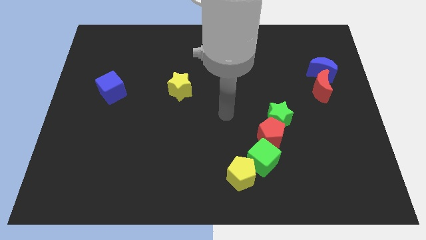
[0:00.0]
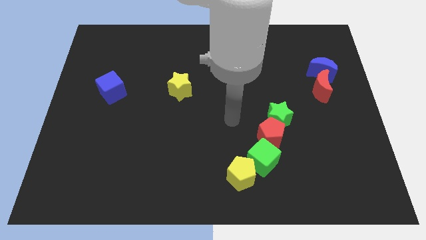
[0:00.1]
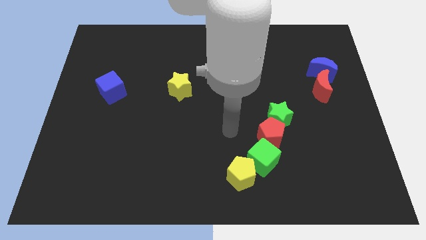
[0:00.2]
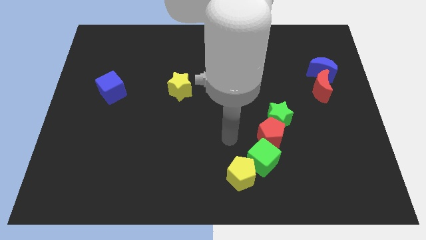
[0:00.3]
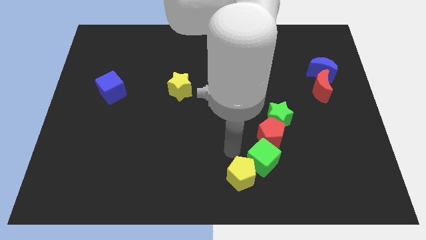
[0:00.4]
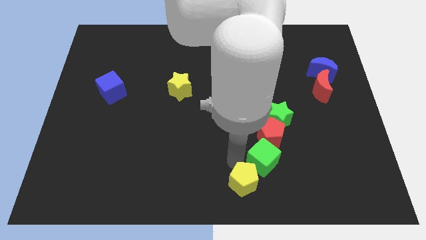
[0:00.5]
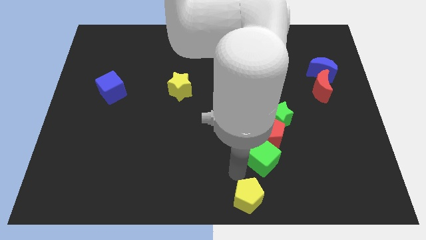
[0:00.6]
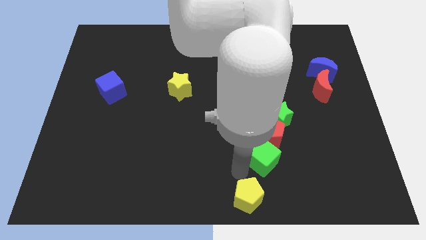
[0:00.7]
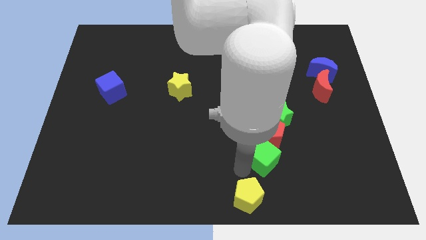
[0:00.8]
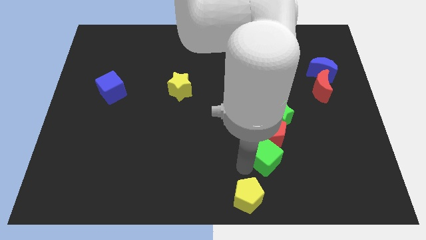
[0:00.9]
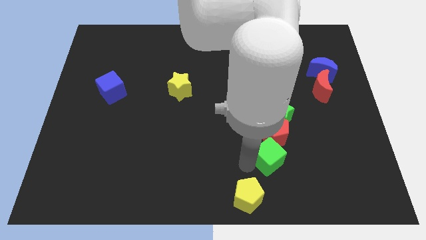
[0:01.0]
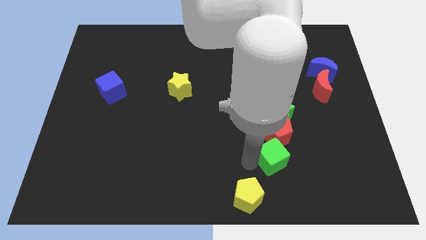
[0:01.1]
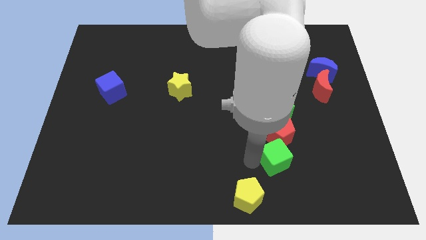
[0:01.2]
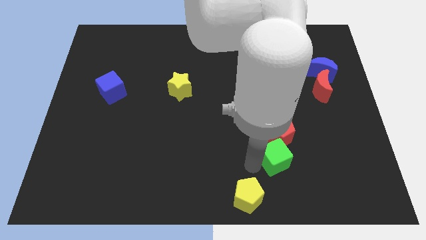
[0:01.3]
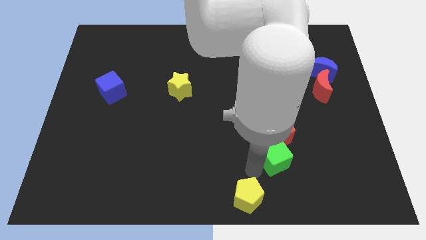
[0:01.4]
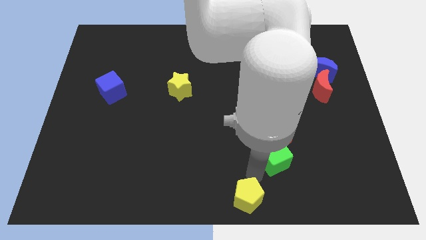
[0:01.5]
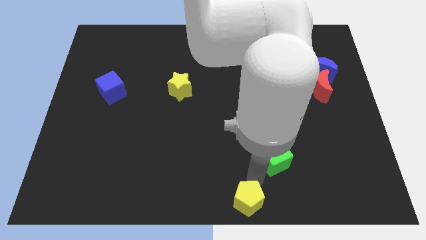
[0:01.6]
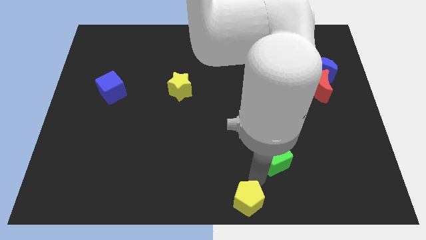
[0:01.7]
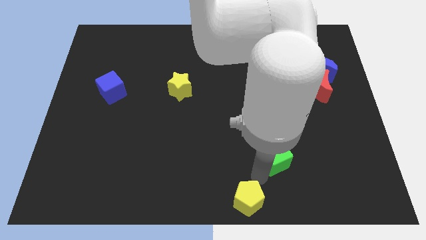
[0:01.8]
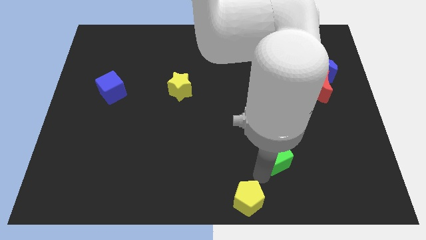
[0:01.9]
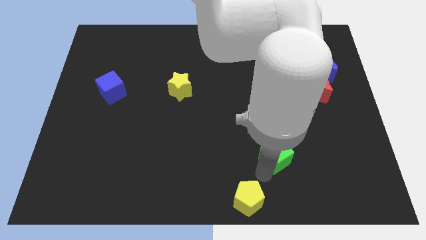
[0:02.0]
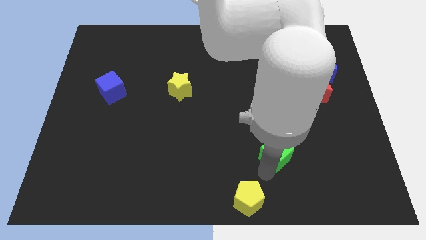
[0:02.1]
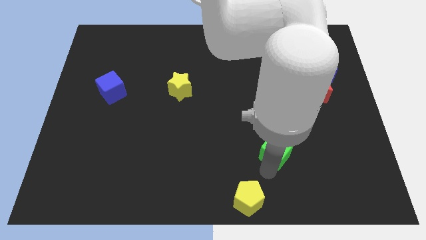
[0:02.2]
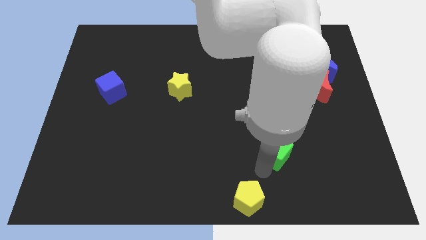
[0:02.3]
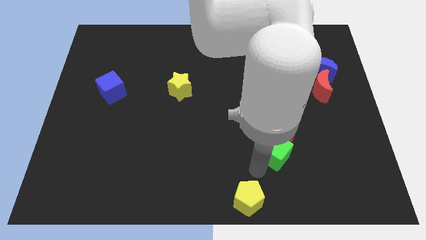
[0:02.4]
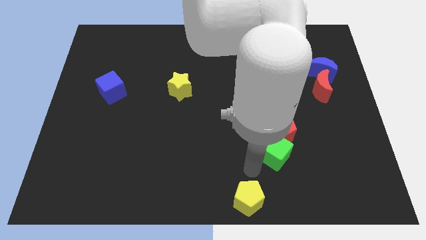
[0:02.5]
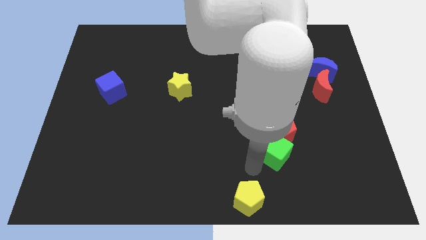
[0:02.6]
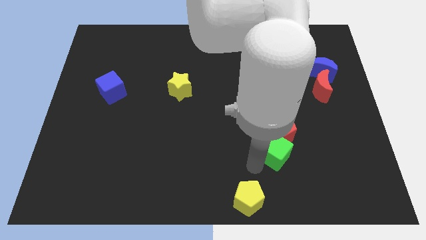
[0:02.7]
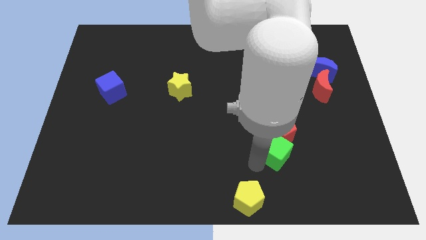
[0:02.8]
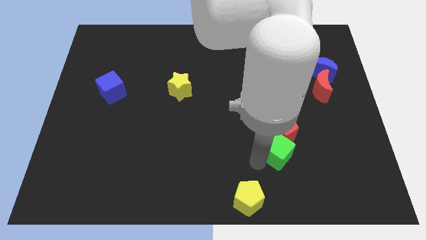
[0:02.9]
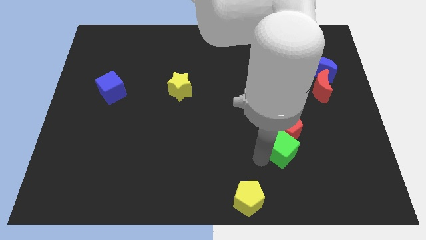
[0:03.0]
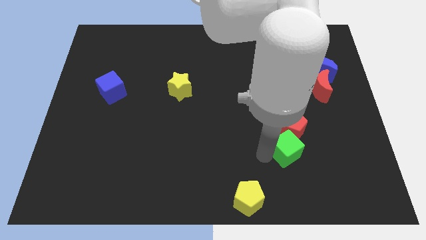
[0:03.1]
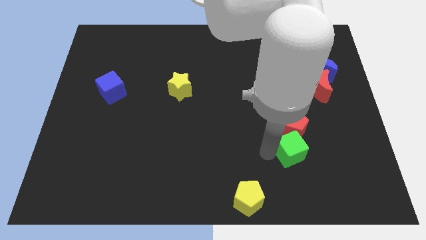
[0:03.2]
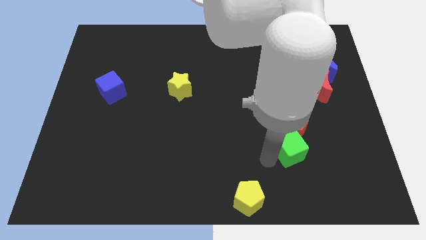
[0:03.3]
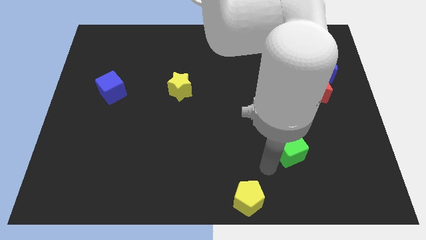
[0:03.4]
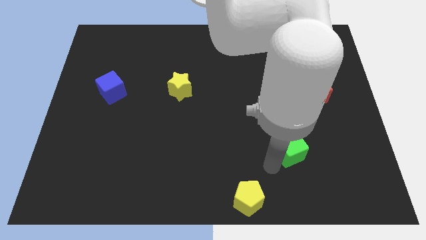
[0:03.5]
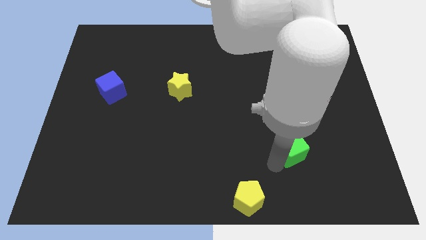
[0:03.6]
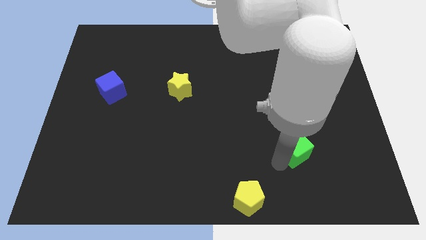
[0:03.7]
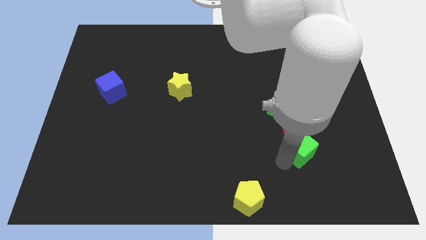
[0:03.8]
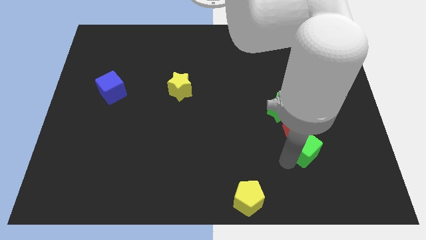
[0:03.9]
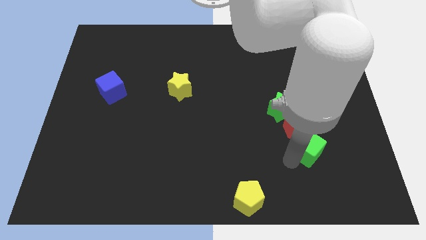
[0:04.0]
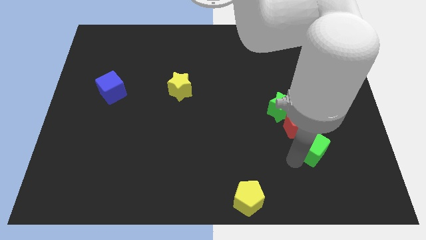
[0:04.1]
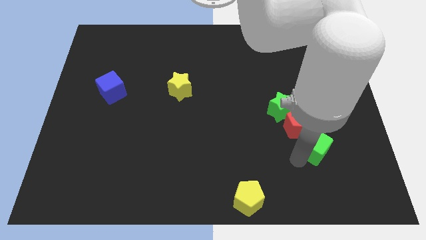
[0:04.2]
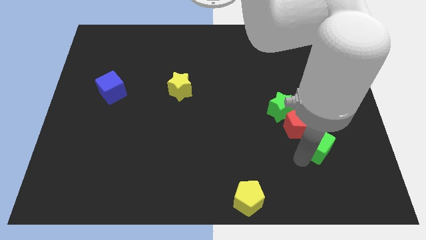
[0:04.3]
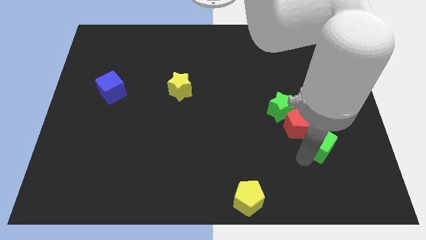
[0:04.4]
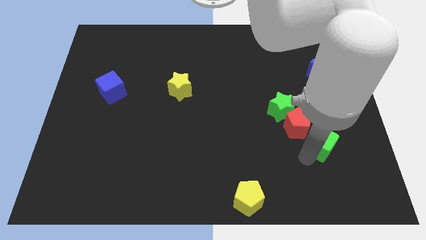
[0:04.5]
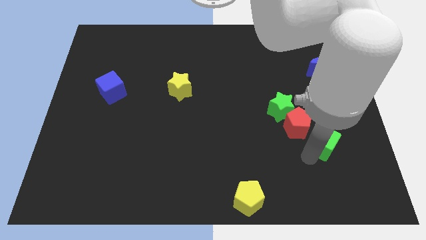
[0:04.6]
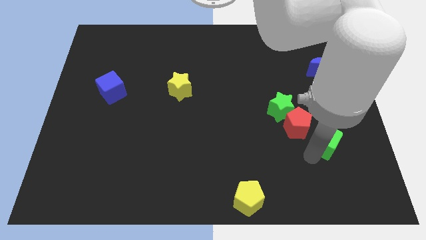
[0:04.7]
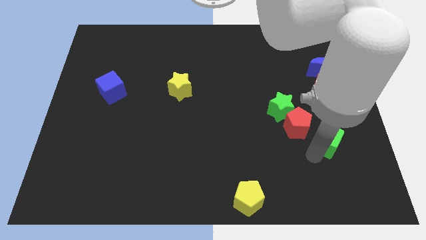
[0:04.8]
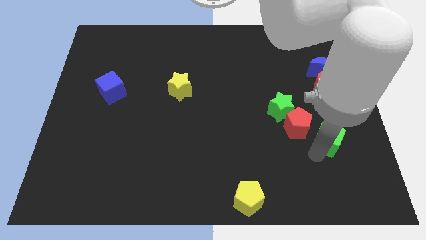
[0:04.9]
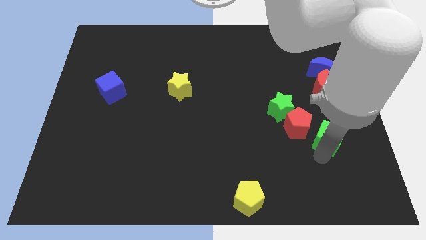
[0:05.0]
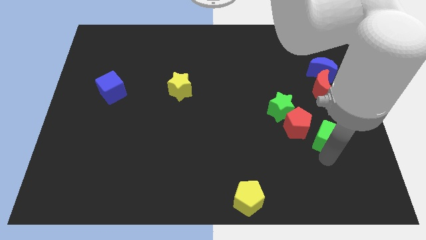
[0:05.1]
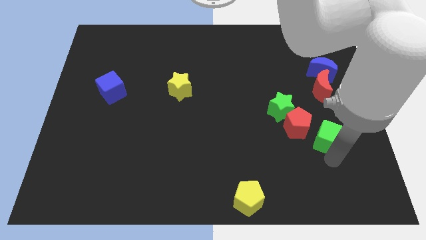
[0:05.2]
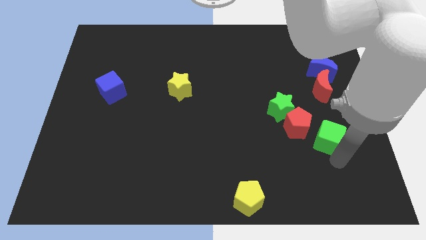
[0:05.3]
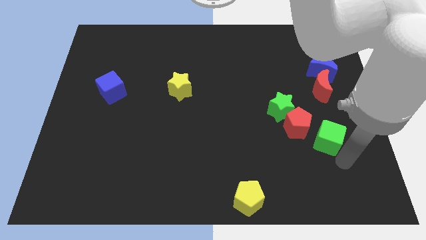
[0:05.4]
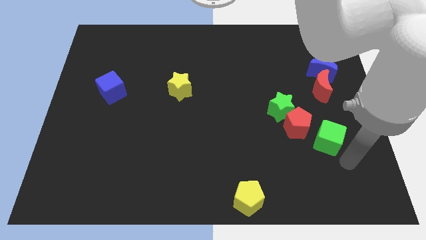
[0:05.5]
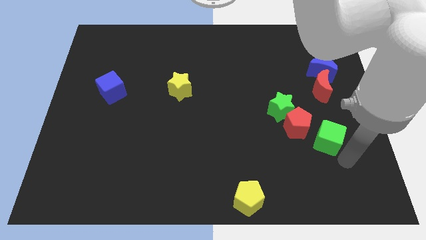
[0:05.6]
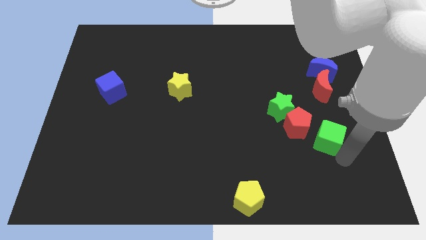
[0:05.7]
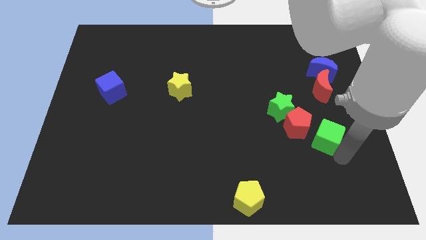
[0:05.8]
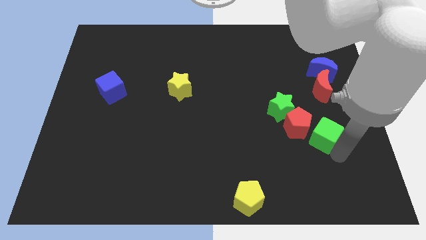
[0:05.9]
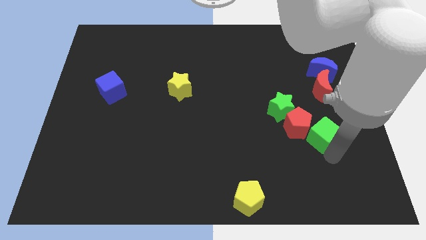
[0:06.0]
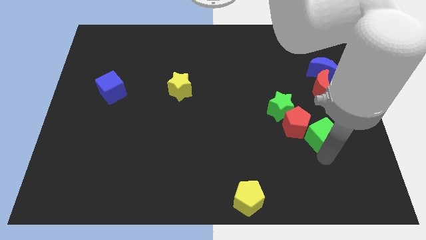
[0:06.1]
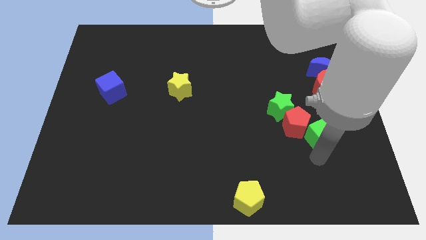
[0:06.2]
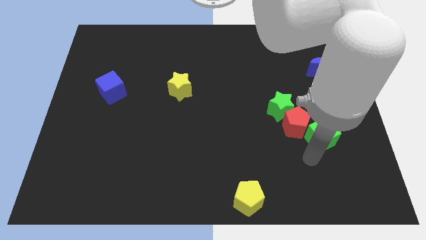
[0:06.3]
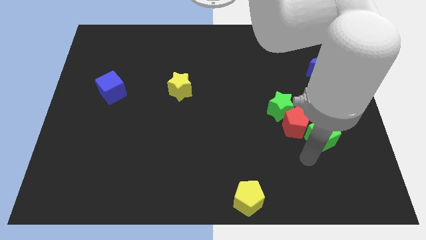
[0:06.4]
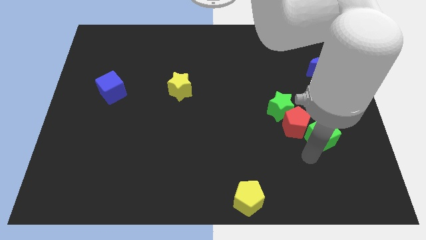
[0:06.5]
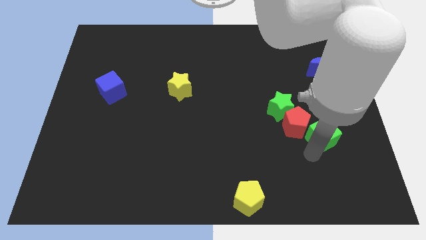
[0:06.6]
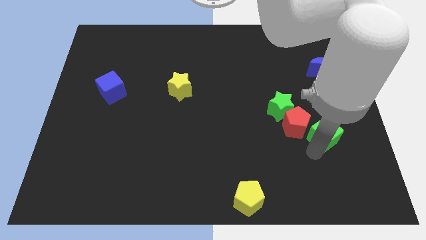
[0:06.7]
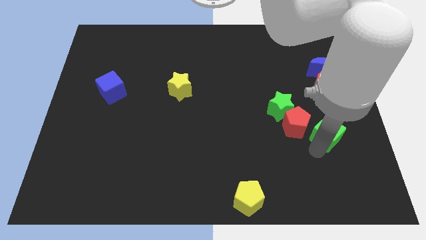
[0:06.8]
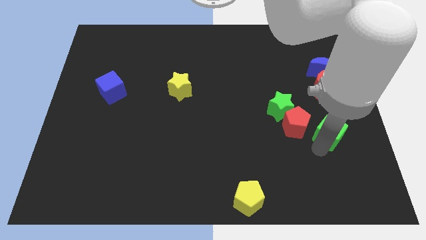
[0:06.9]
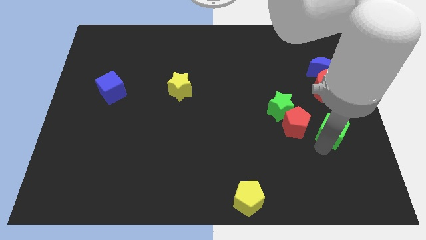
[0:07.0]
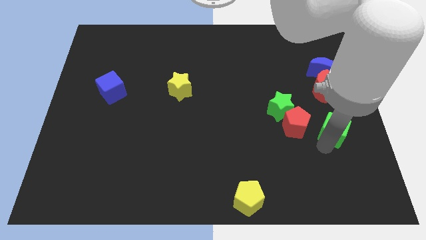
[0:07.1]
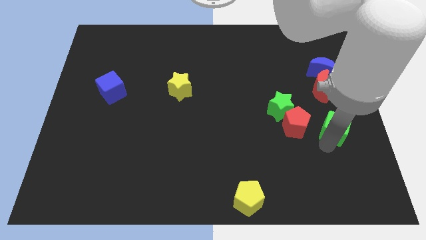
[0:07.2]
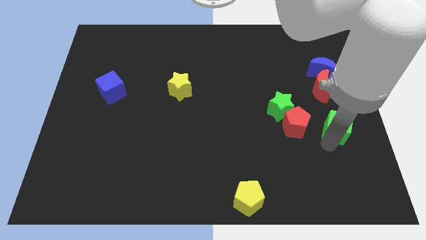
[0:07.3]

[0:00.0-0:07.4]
move the green cube to the right side of the board
